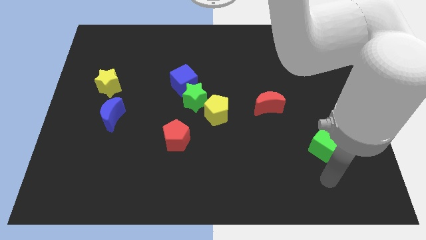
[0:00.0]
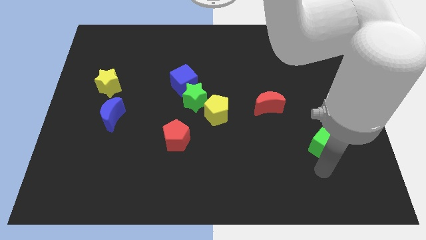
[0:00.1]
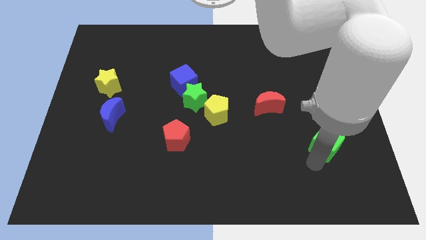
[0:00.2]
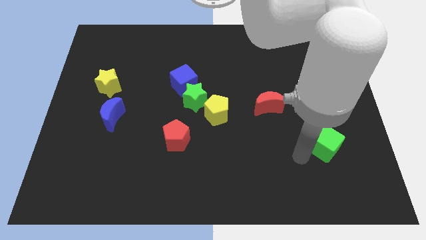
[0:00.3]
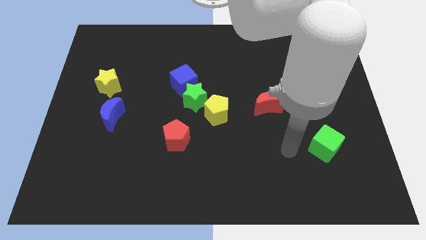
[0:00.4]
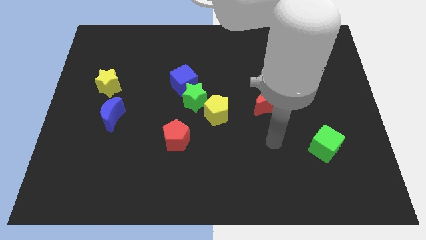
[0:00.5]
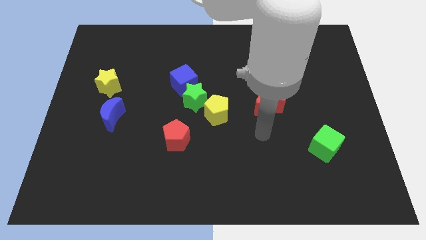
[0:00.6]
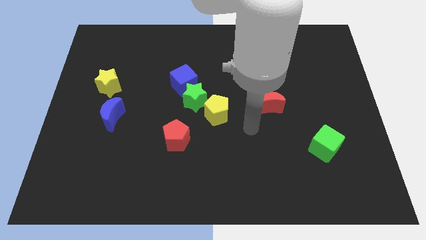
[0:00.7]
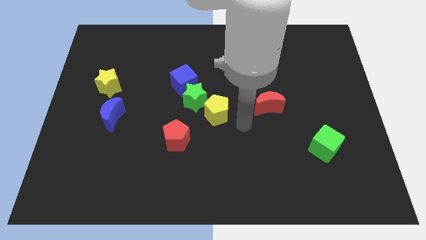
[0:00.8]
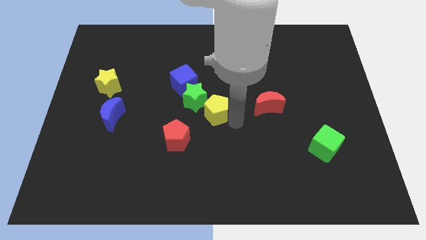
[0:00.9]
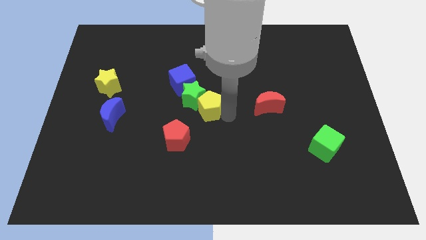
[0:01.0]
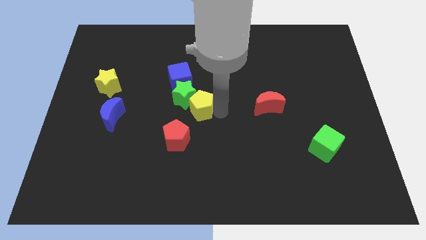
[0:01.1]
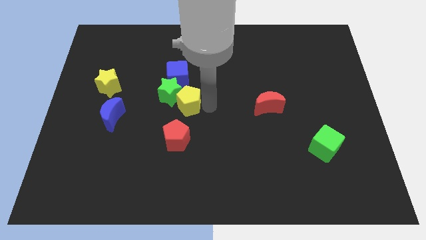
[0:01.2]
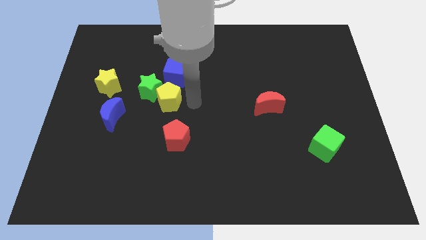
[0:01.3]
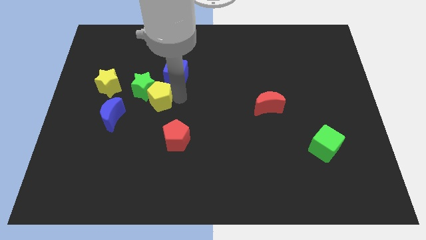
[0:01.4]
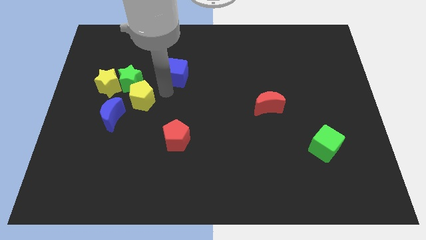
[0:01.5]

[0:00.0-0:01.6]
move the blue cube away from the green star

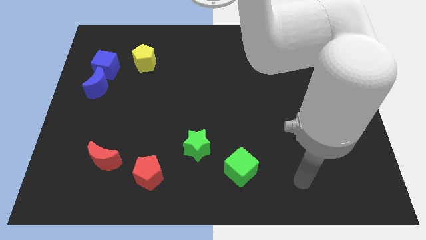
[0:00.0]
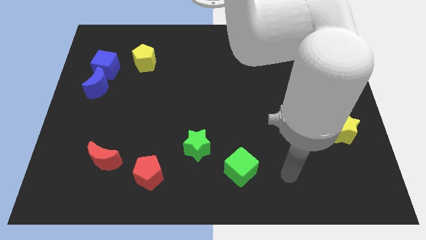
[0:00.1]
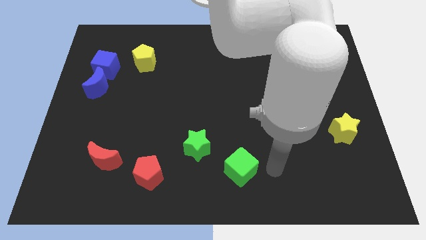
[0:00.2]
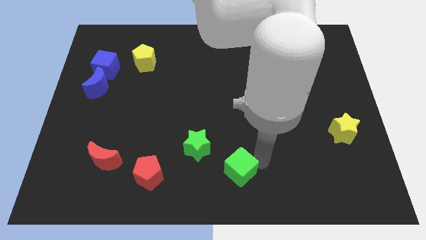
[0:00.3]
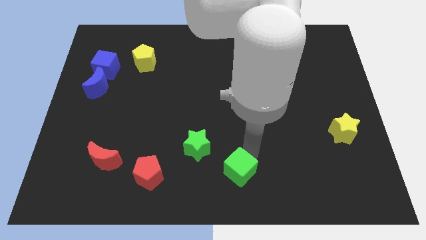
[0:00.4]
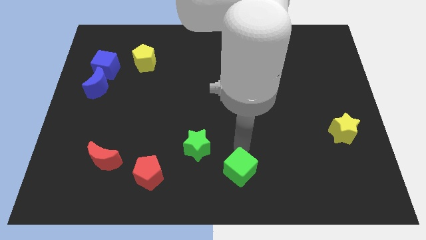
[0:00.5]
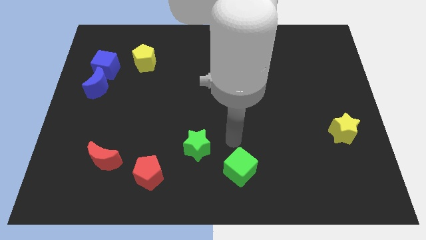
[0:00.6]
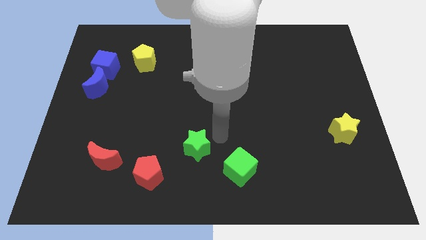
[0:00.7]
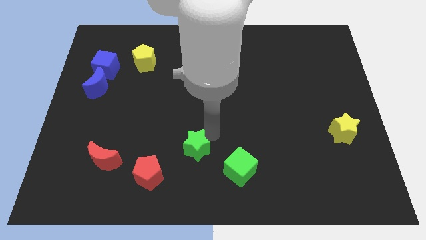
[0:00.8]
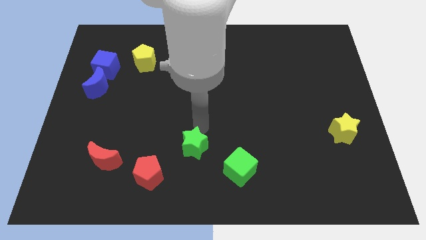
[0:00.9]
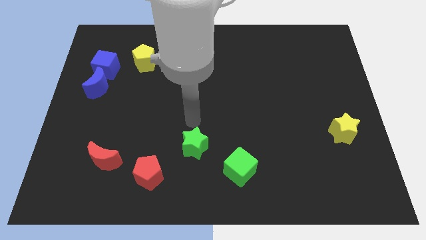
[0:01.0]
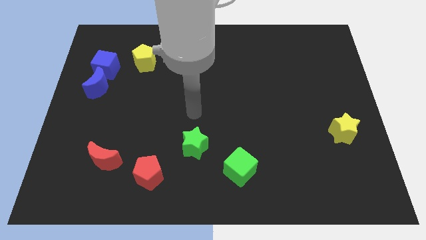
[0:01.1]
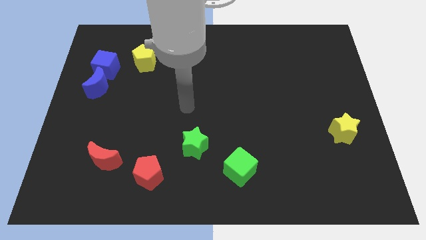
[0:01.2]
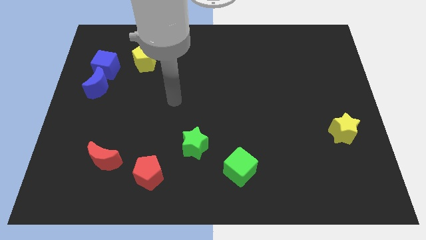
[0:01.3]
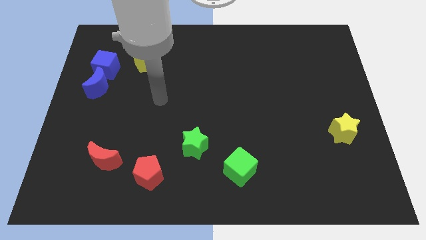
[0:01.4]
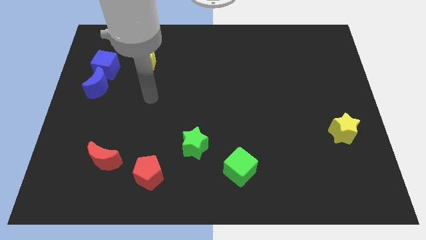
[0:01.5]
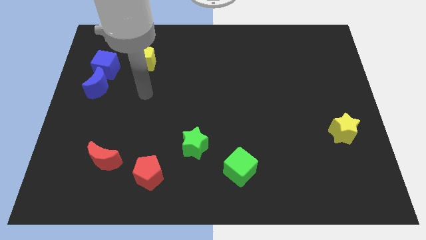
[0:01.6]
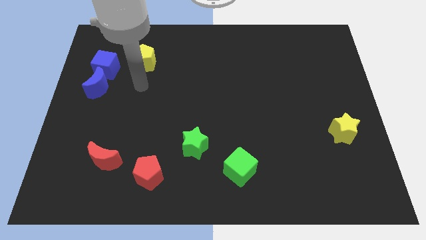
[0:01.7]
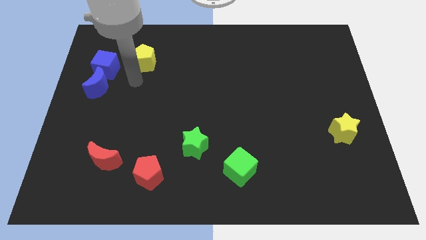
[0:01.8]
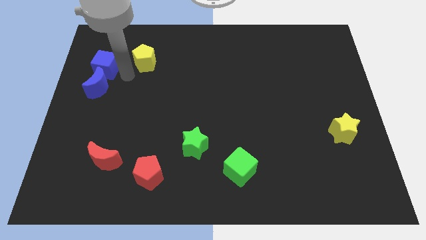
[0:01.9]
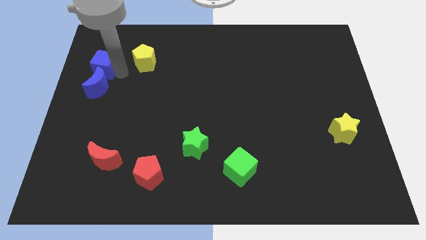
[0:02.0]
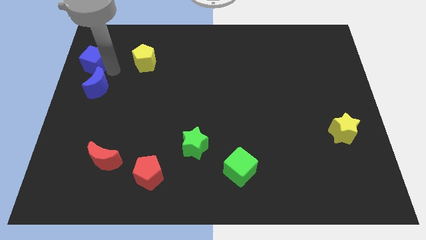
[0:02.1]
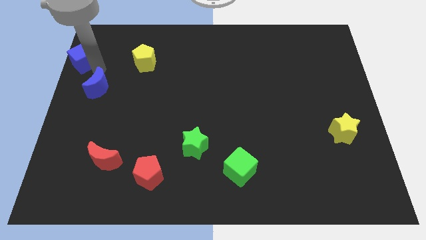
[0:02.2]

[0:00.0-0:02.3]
pull the blue moon apart from the blue cube

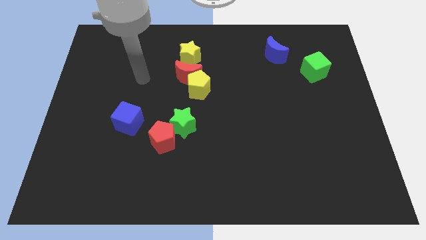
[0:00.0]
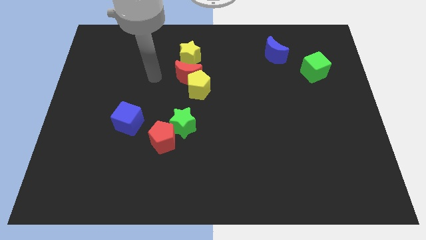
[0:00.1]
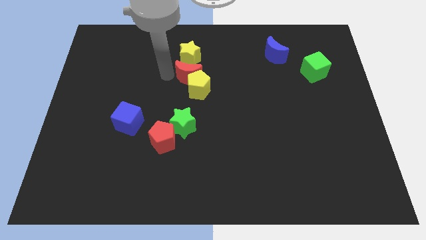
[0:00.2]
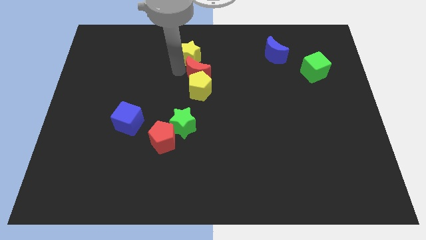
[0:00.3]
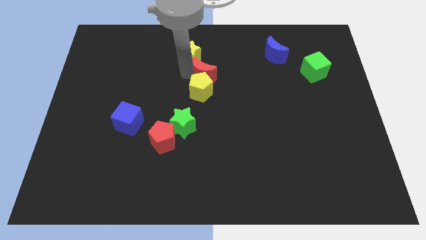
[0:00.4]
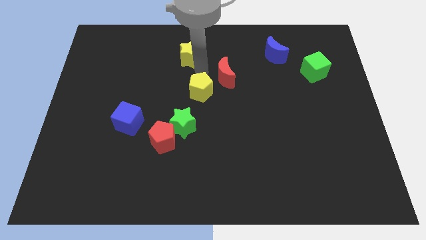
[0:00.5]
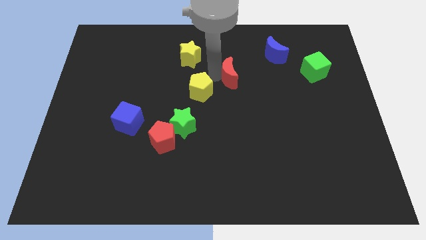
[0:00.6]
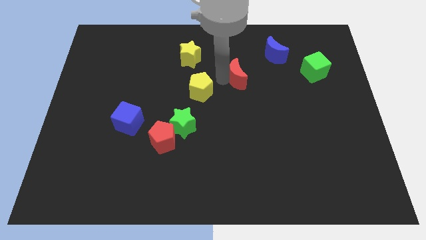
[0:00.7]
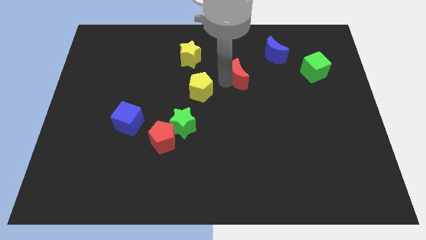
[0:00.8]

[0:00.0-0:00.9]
move the yellow pentagon away from the red moon

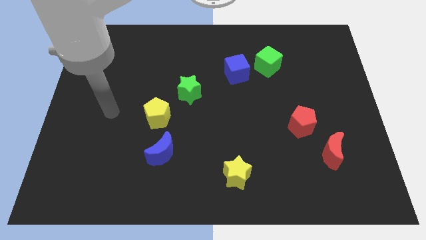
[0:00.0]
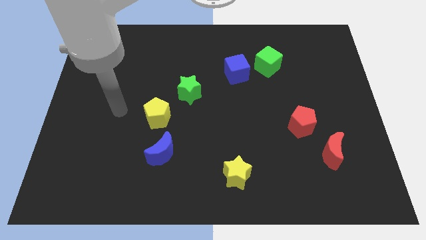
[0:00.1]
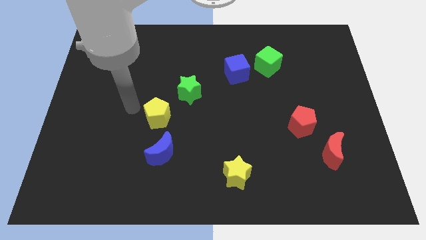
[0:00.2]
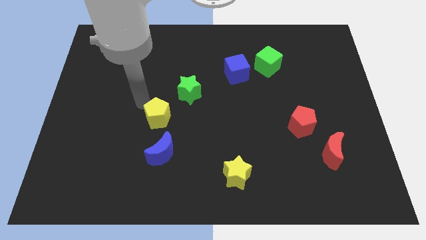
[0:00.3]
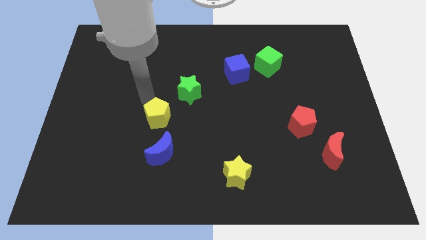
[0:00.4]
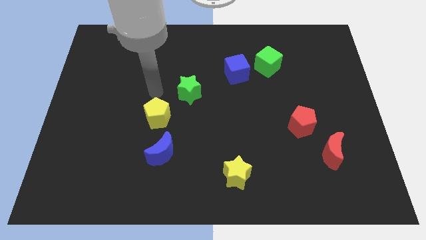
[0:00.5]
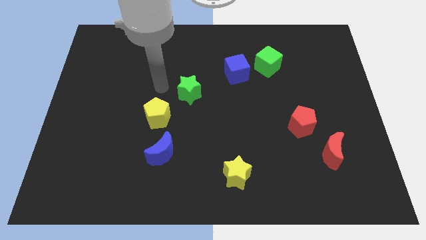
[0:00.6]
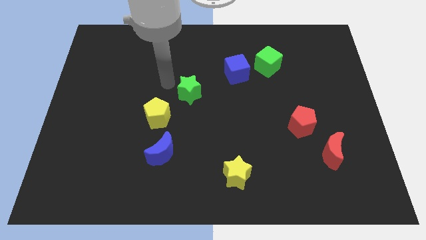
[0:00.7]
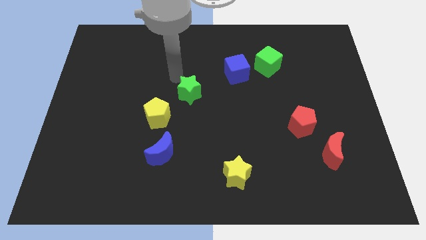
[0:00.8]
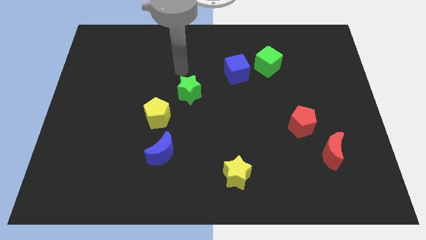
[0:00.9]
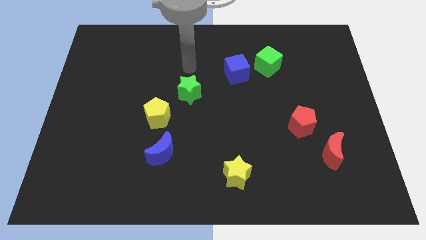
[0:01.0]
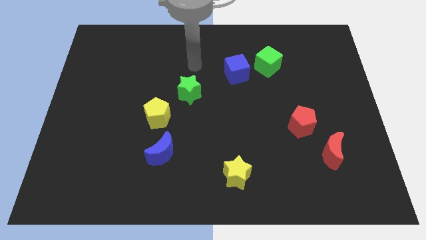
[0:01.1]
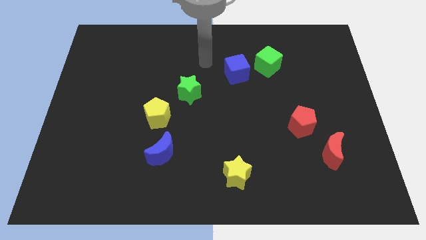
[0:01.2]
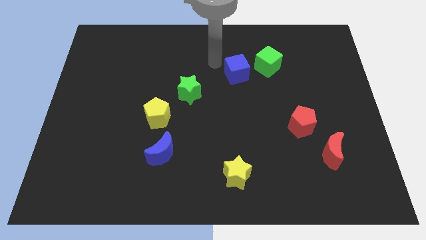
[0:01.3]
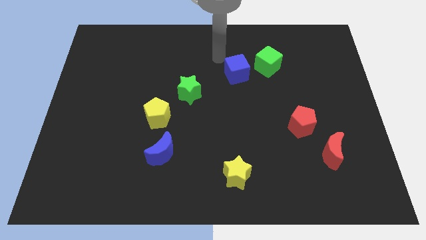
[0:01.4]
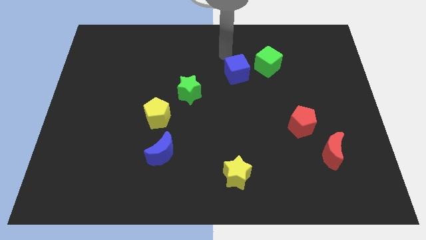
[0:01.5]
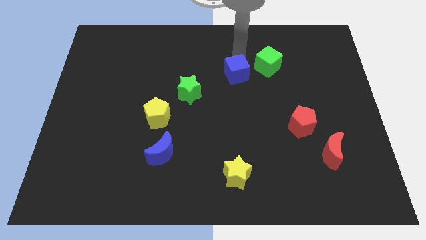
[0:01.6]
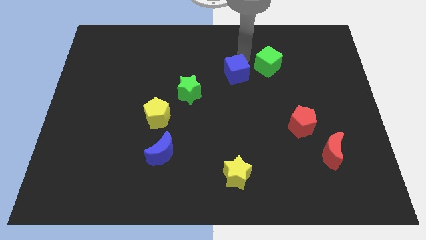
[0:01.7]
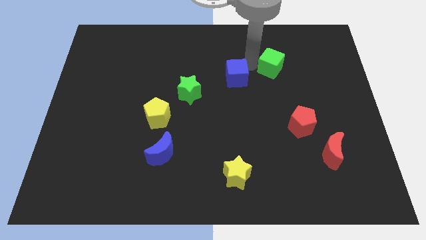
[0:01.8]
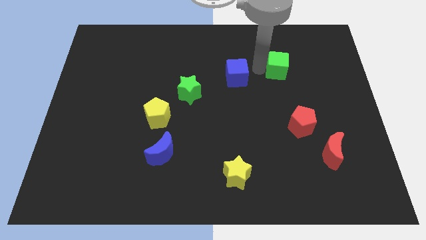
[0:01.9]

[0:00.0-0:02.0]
move the blue cube away from the green cube

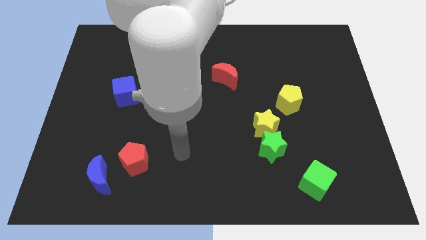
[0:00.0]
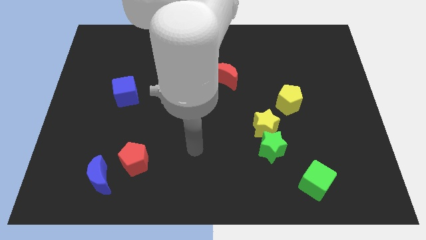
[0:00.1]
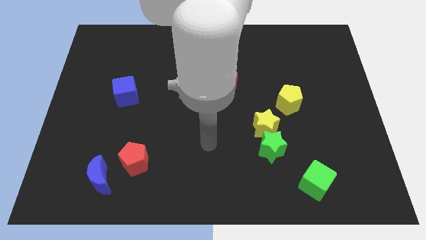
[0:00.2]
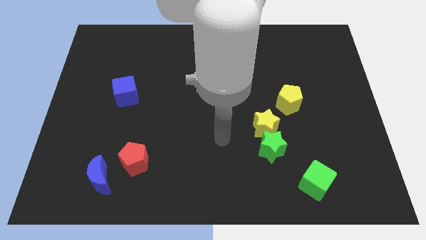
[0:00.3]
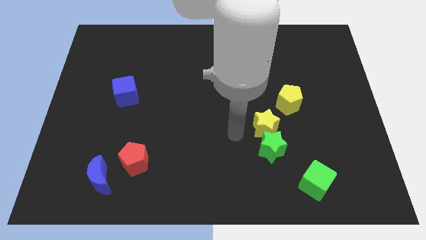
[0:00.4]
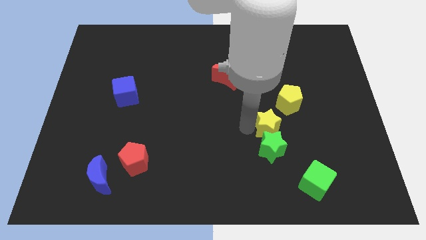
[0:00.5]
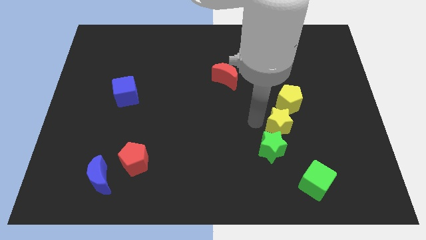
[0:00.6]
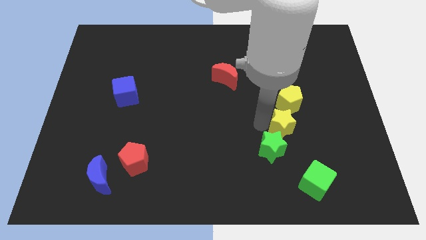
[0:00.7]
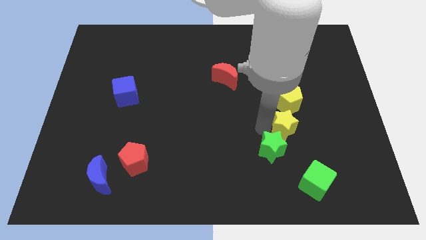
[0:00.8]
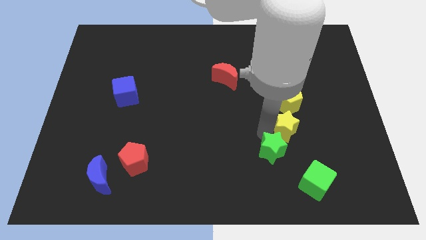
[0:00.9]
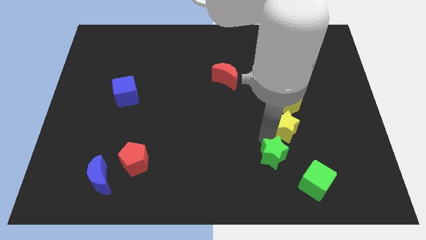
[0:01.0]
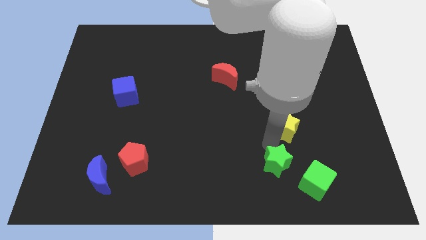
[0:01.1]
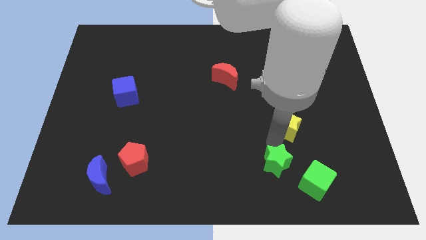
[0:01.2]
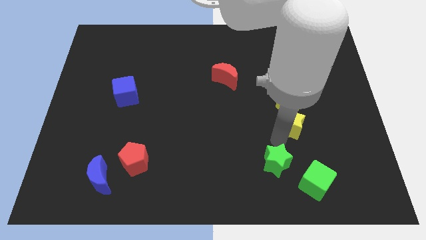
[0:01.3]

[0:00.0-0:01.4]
move the green star away from the yellow star

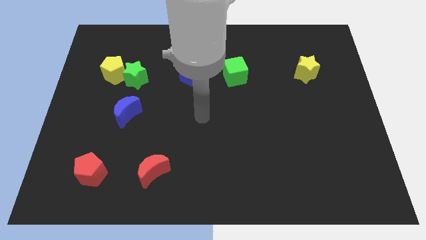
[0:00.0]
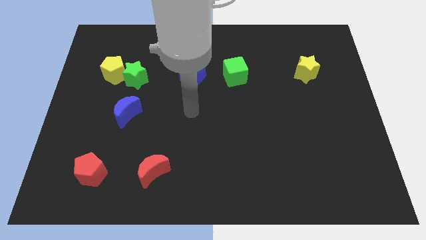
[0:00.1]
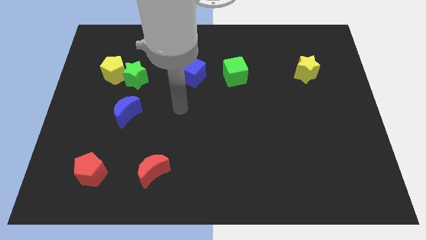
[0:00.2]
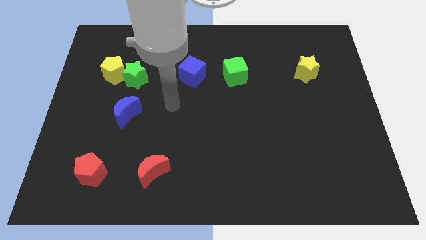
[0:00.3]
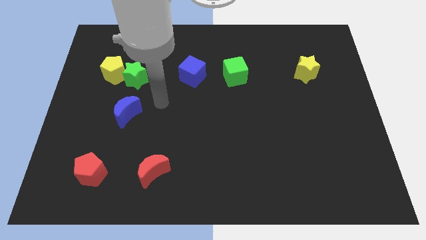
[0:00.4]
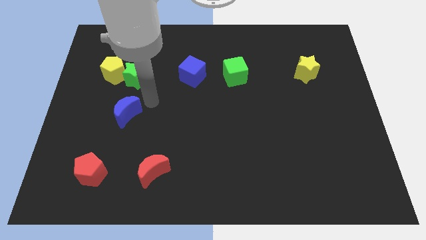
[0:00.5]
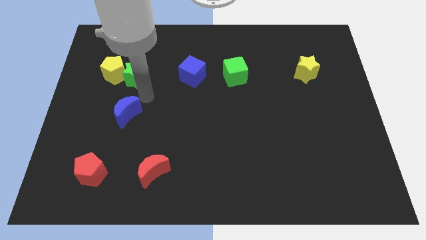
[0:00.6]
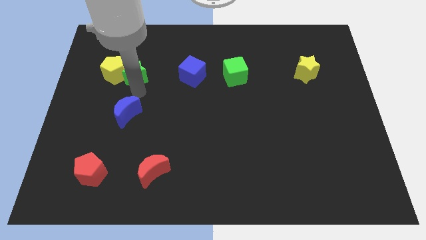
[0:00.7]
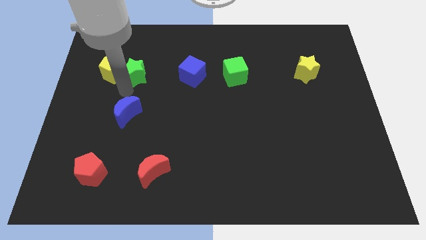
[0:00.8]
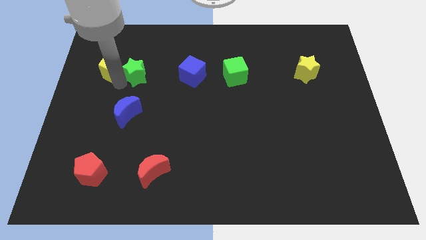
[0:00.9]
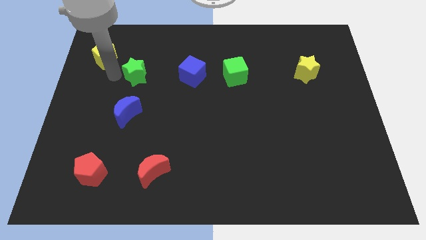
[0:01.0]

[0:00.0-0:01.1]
separate the green star from the yellow pentagon
